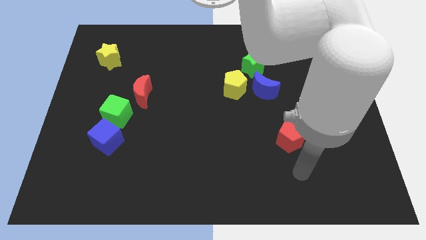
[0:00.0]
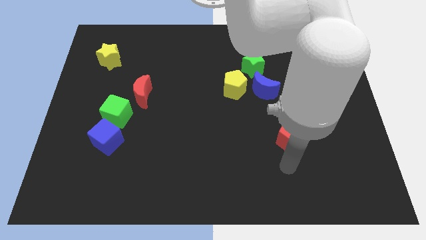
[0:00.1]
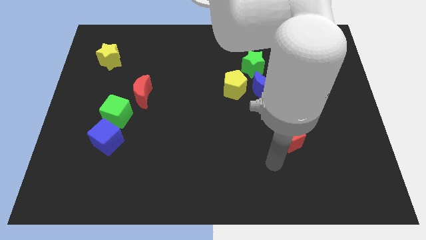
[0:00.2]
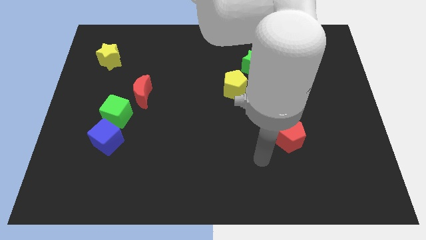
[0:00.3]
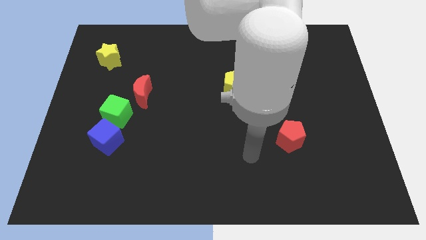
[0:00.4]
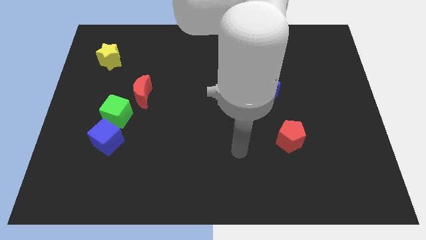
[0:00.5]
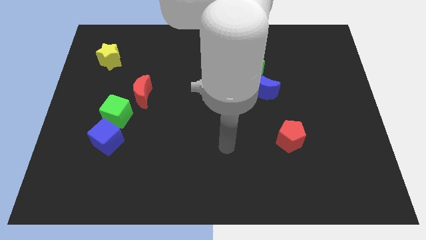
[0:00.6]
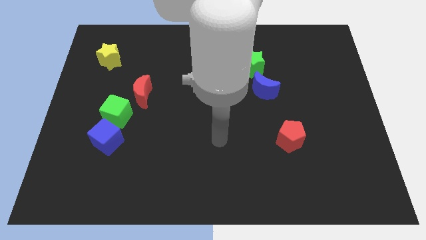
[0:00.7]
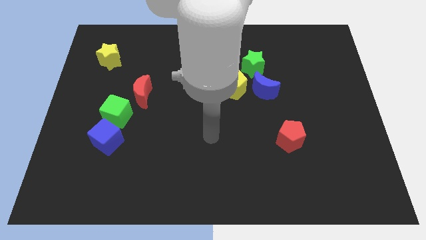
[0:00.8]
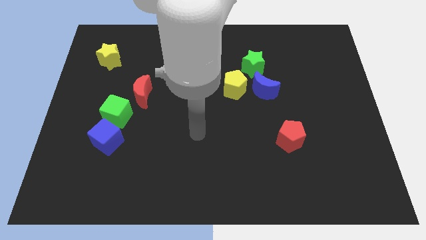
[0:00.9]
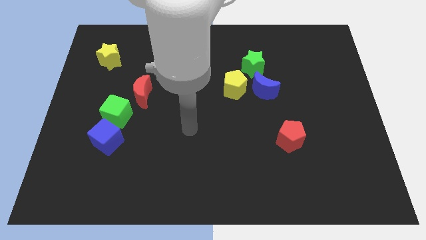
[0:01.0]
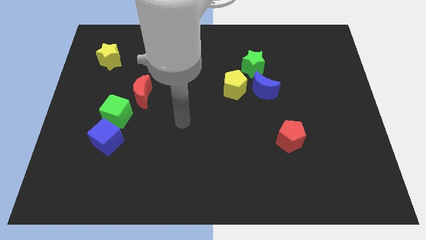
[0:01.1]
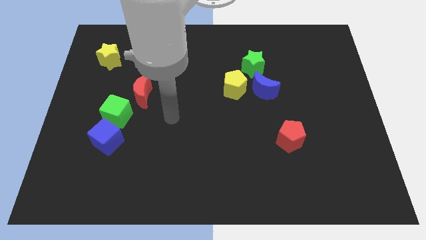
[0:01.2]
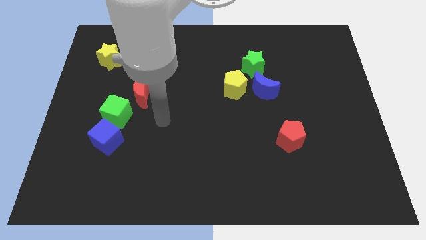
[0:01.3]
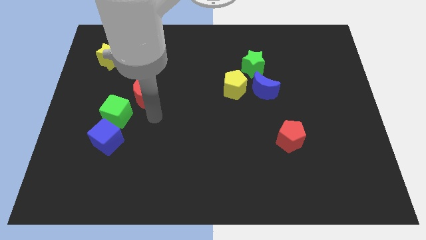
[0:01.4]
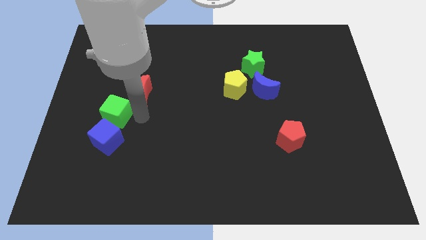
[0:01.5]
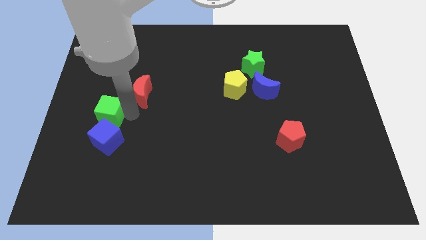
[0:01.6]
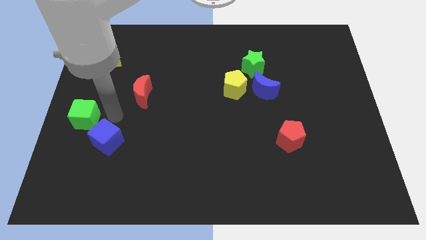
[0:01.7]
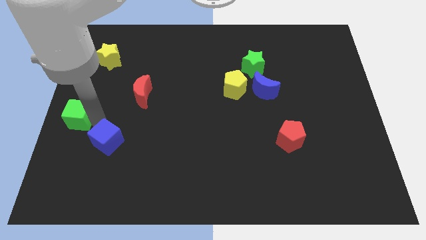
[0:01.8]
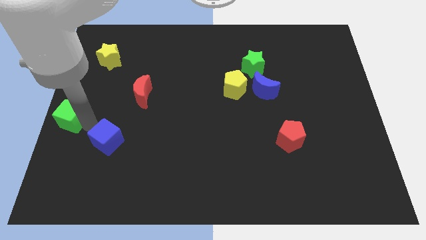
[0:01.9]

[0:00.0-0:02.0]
pull the blue cube apart from the green cube

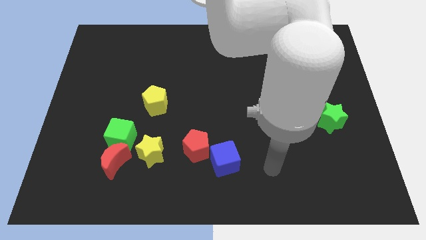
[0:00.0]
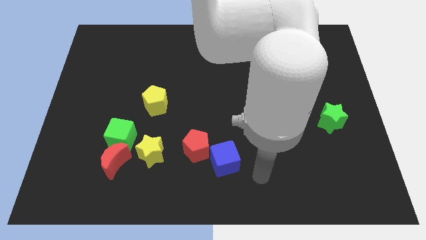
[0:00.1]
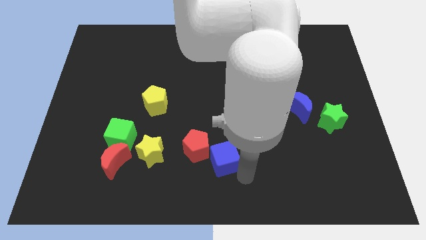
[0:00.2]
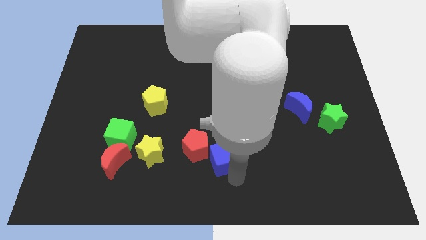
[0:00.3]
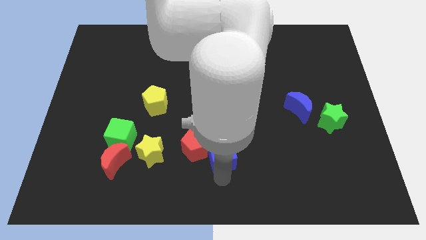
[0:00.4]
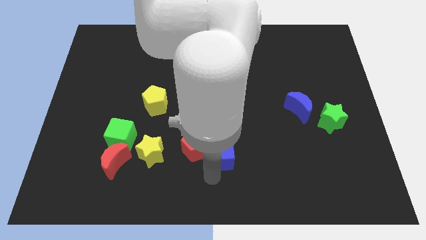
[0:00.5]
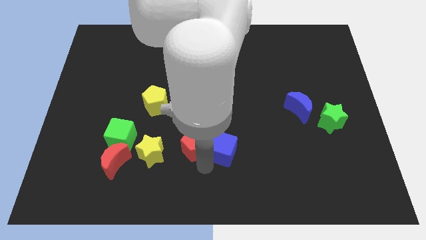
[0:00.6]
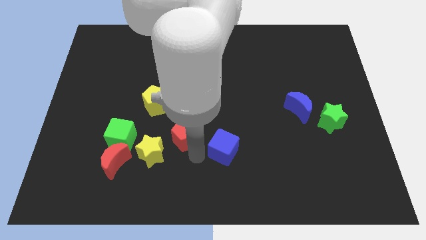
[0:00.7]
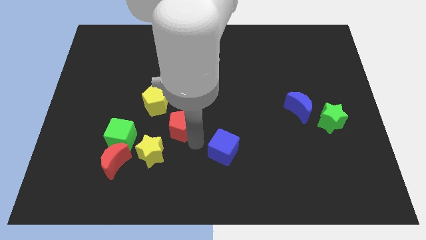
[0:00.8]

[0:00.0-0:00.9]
move the blue cube away from the red pentagon

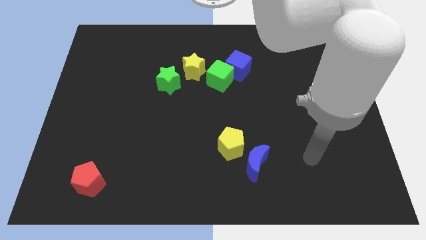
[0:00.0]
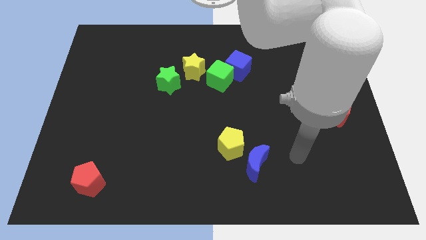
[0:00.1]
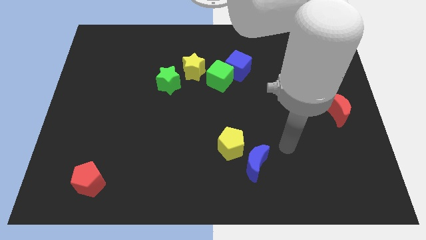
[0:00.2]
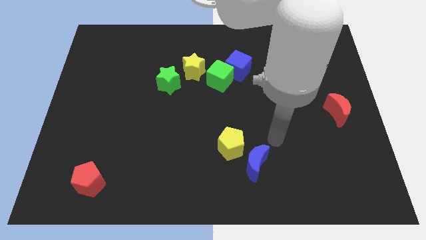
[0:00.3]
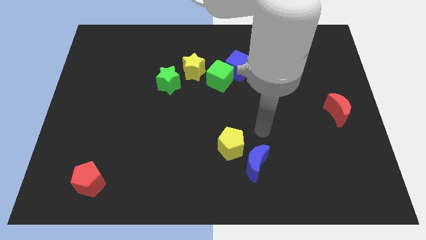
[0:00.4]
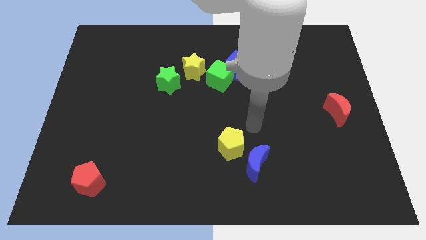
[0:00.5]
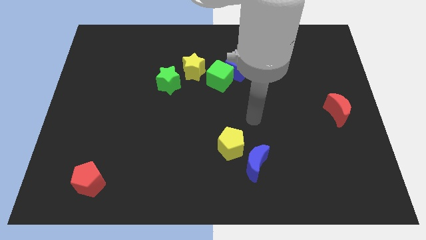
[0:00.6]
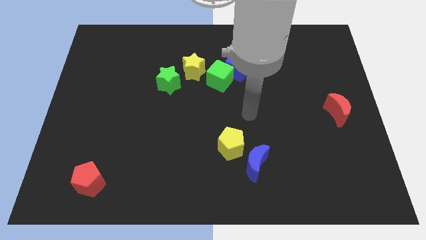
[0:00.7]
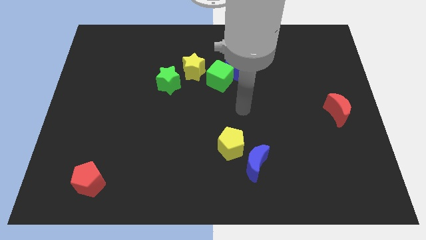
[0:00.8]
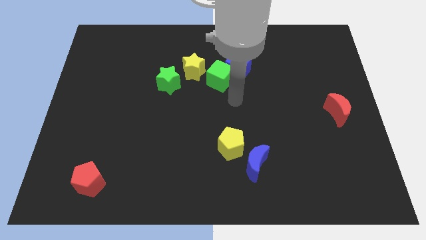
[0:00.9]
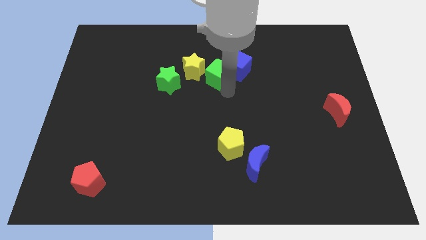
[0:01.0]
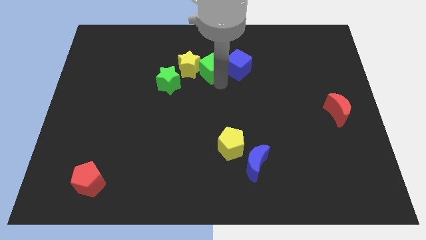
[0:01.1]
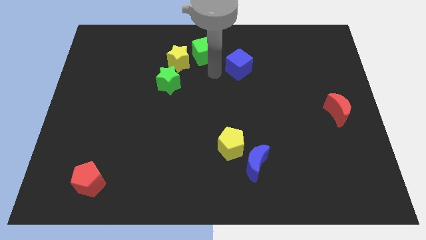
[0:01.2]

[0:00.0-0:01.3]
move the blue cube away from the green cube

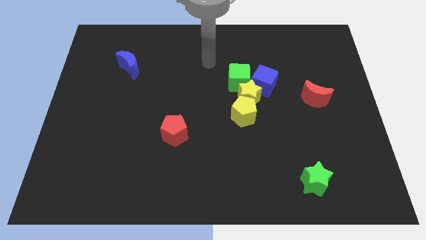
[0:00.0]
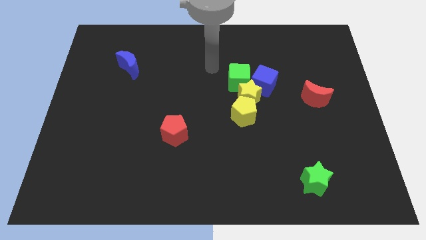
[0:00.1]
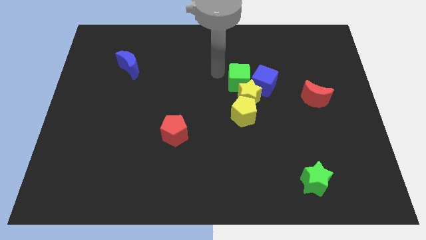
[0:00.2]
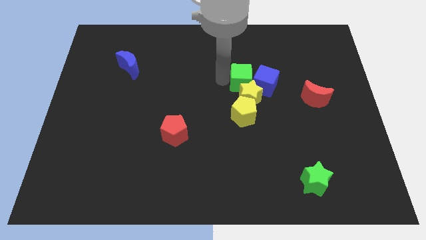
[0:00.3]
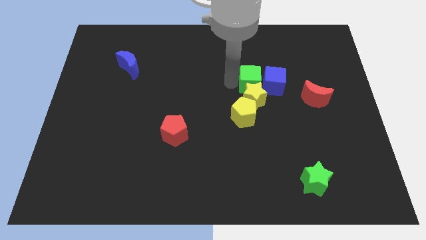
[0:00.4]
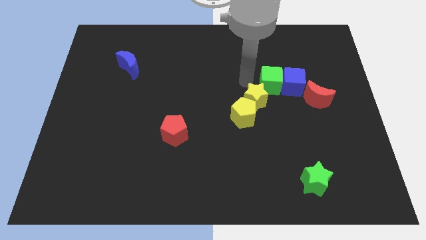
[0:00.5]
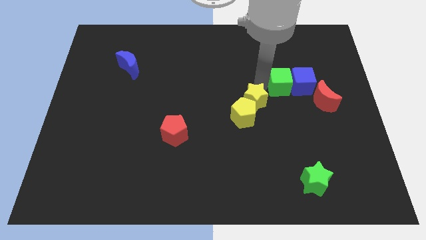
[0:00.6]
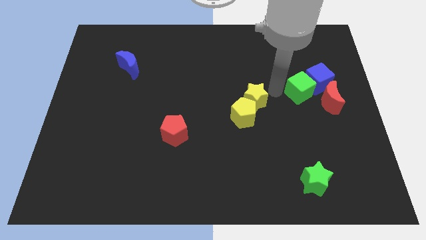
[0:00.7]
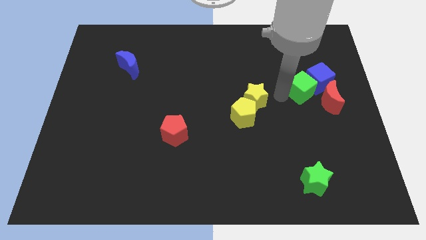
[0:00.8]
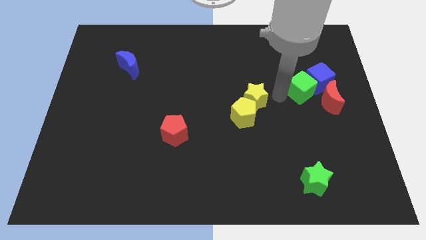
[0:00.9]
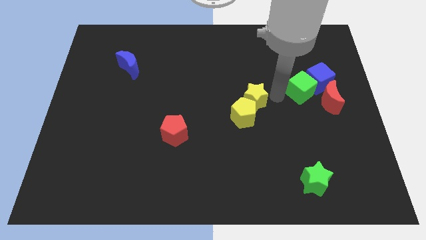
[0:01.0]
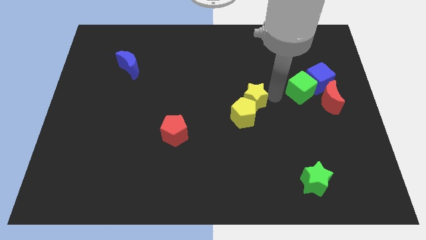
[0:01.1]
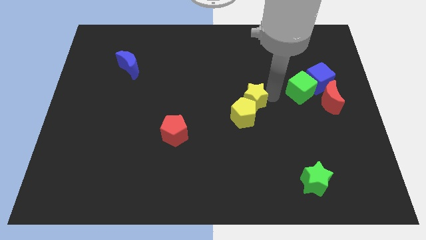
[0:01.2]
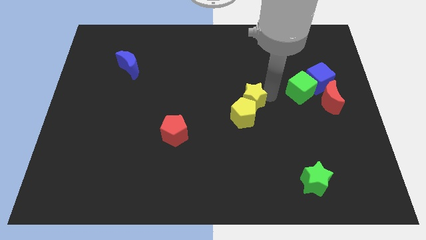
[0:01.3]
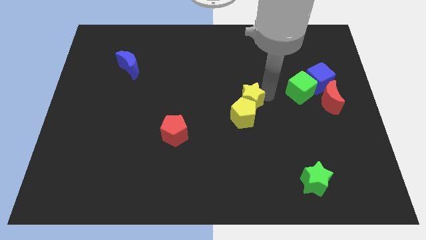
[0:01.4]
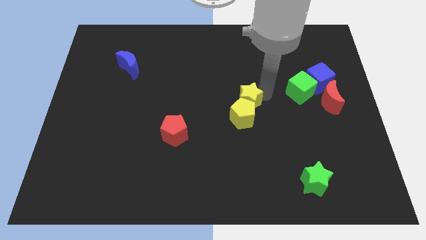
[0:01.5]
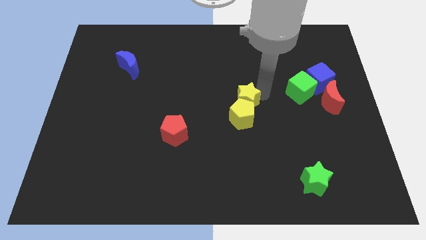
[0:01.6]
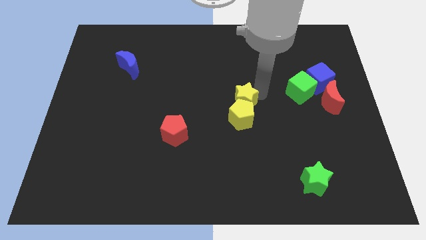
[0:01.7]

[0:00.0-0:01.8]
separate the yellow star from the yellow pentagon, blue cube, and green cube

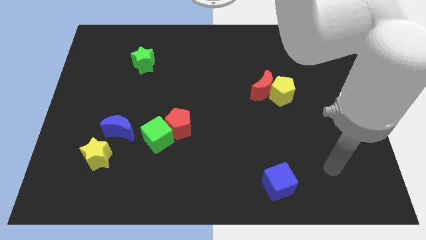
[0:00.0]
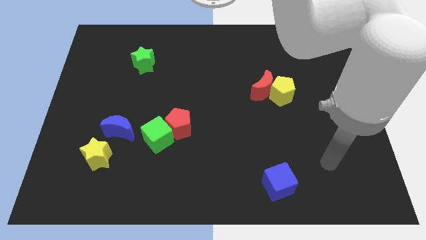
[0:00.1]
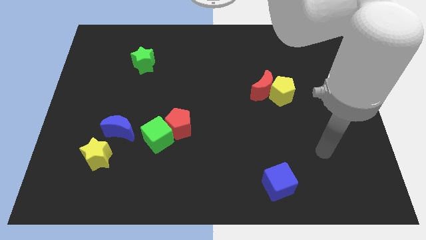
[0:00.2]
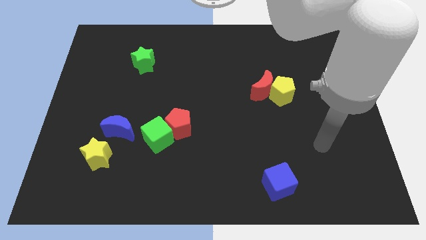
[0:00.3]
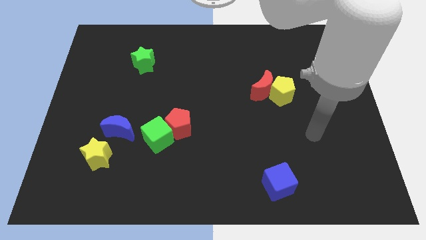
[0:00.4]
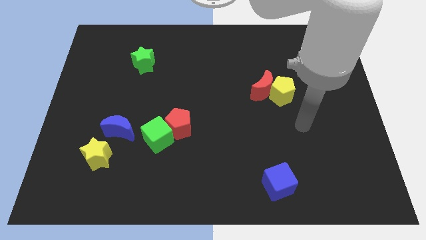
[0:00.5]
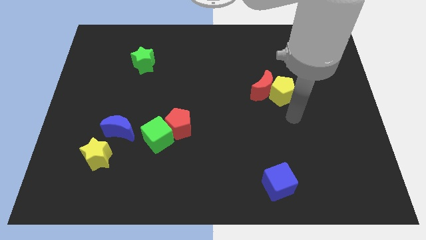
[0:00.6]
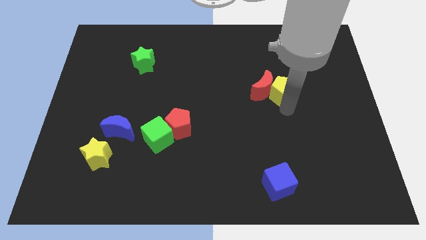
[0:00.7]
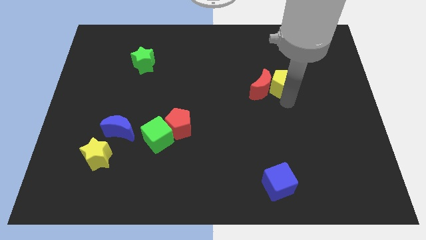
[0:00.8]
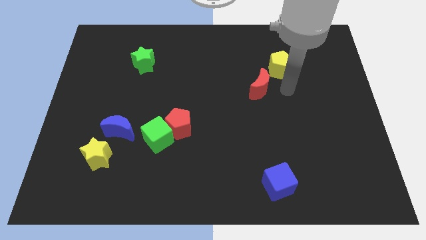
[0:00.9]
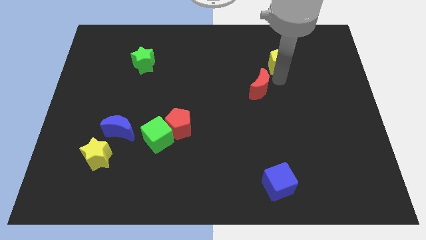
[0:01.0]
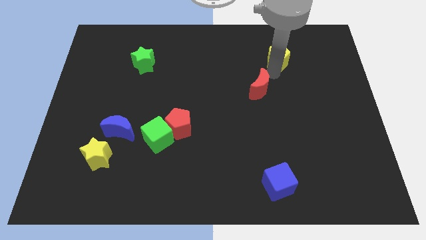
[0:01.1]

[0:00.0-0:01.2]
pull the red moon apart from the yellow pentagon

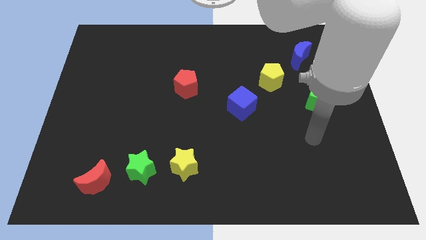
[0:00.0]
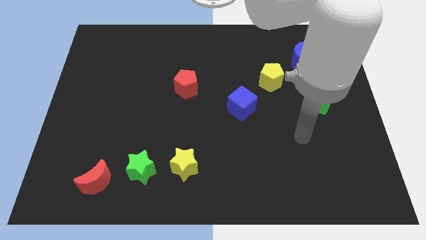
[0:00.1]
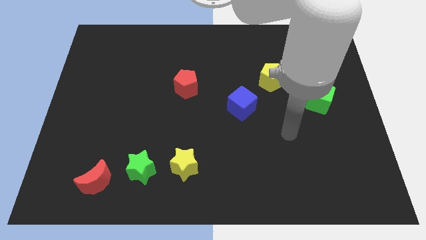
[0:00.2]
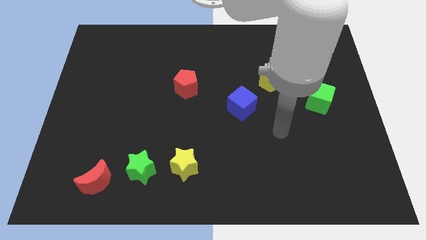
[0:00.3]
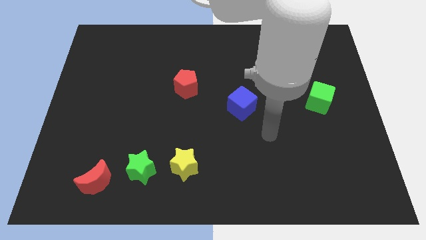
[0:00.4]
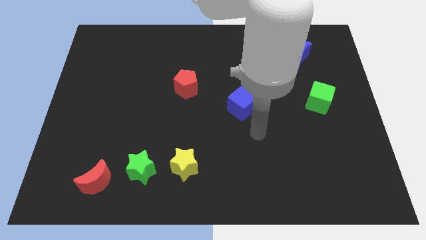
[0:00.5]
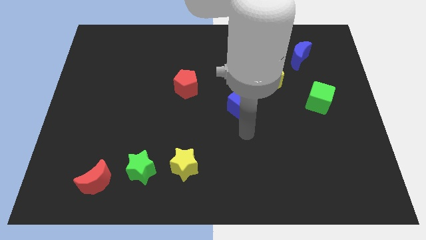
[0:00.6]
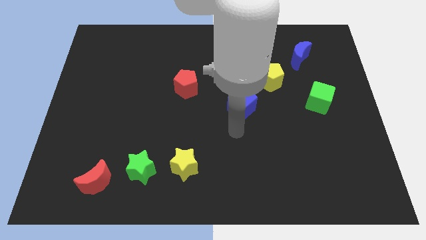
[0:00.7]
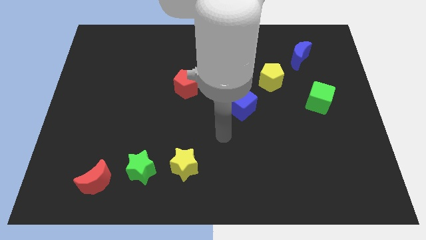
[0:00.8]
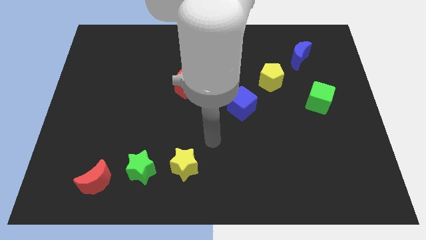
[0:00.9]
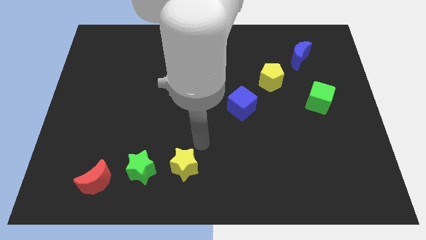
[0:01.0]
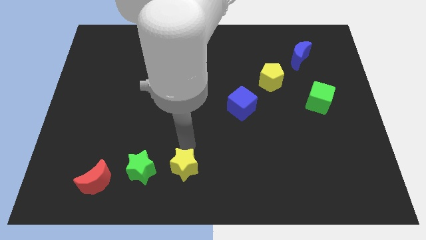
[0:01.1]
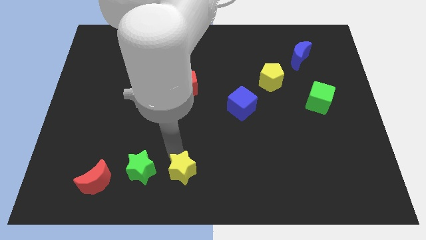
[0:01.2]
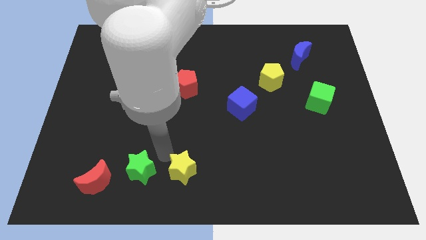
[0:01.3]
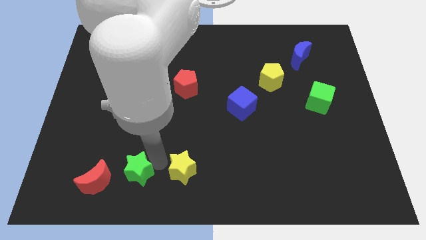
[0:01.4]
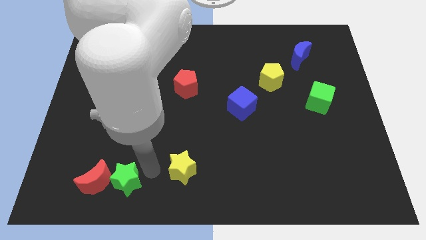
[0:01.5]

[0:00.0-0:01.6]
pull the yellow star apart from the green star

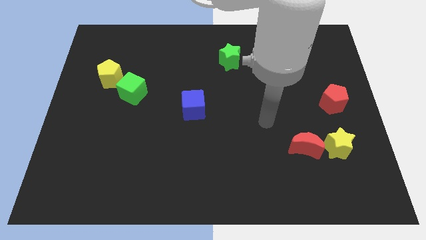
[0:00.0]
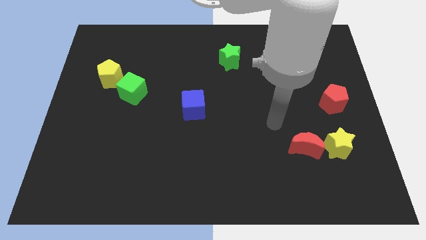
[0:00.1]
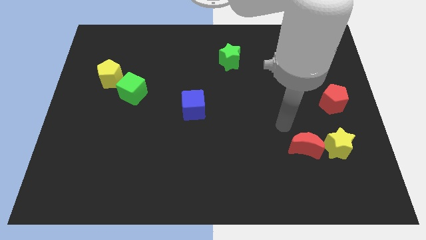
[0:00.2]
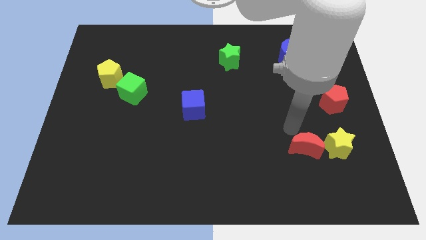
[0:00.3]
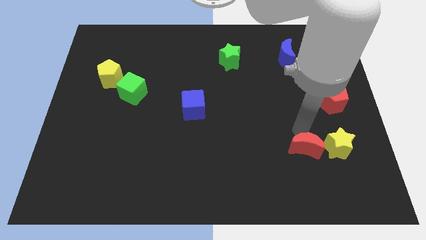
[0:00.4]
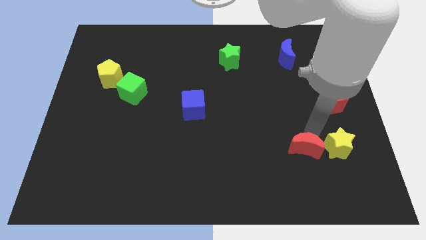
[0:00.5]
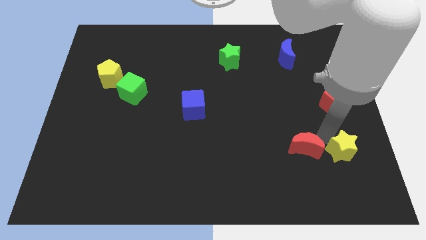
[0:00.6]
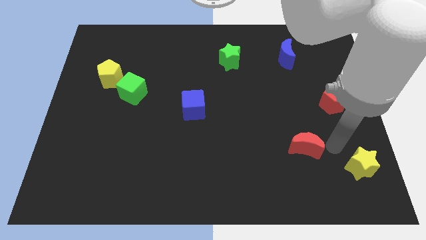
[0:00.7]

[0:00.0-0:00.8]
pull the red moon apart from the yellow star
